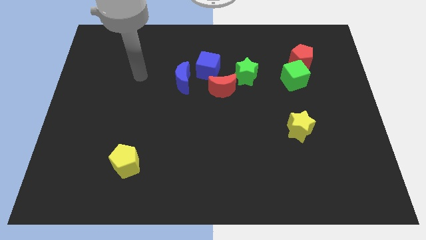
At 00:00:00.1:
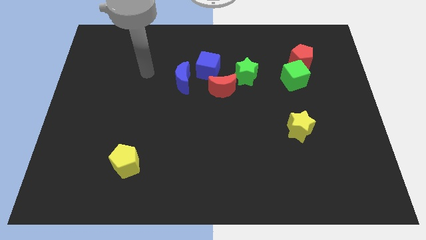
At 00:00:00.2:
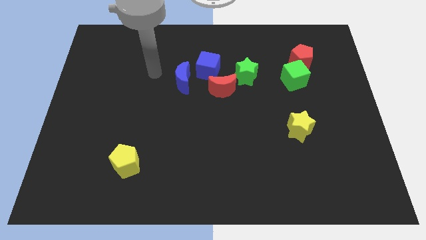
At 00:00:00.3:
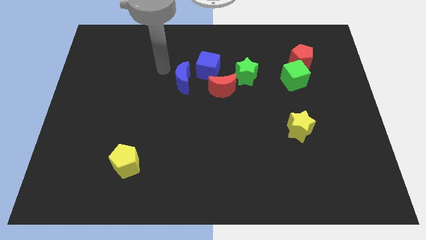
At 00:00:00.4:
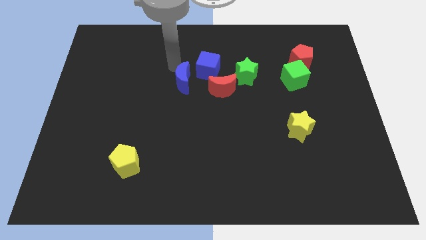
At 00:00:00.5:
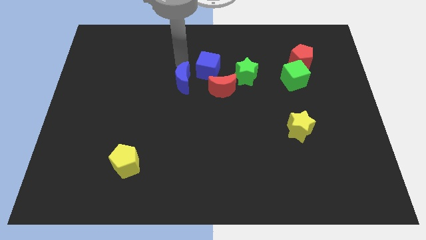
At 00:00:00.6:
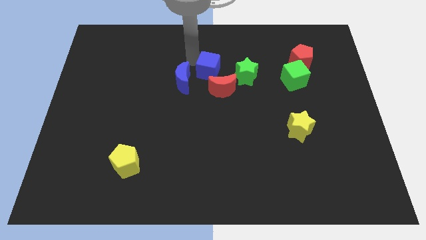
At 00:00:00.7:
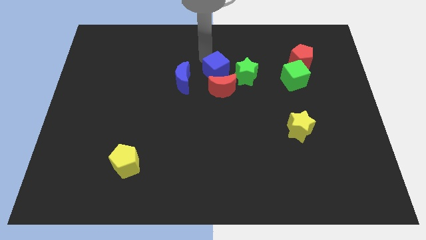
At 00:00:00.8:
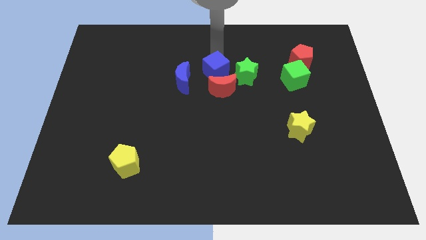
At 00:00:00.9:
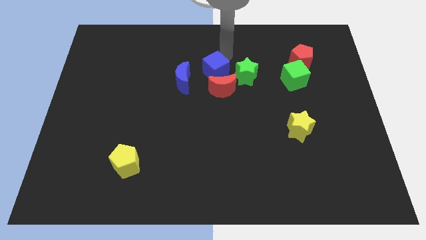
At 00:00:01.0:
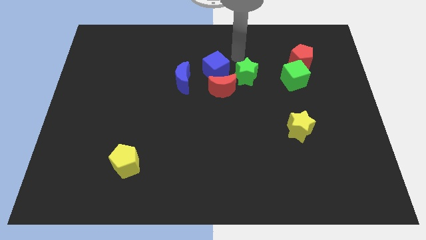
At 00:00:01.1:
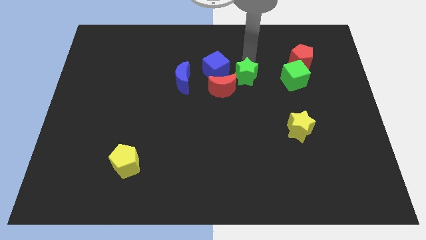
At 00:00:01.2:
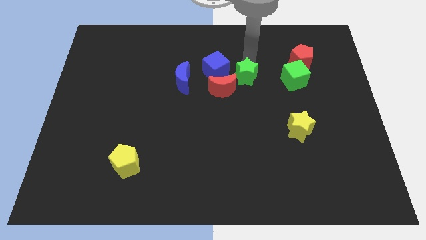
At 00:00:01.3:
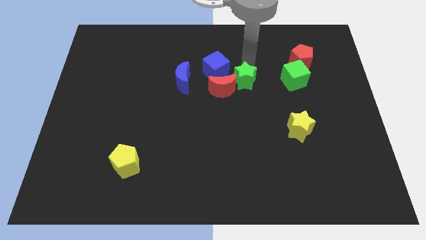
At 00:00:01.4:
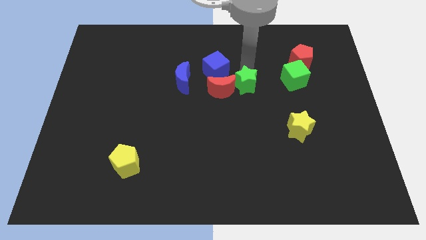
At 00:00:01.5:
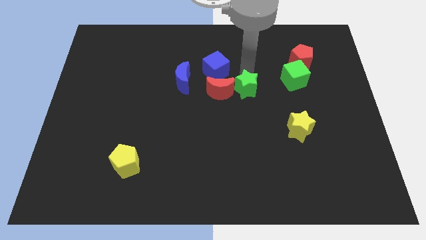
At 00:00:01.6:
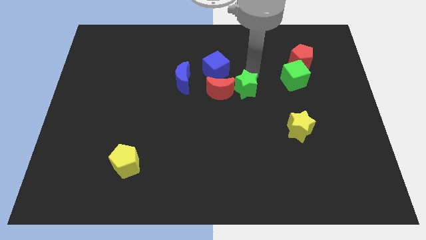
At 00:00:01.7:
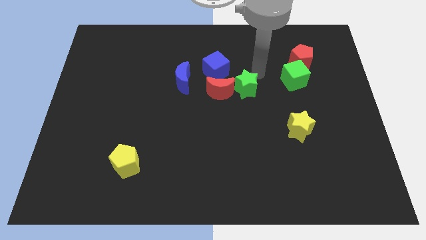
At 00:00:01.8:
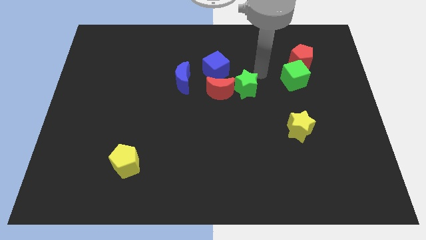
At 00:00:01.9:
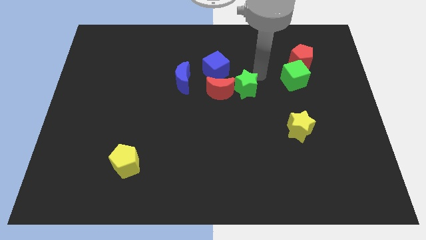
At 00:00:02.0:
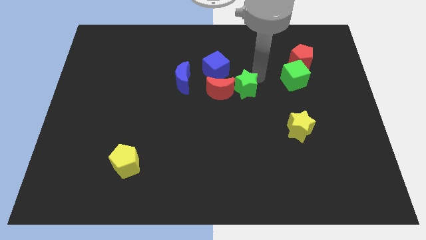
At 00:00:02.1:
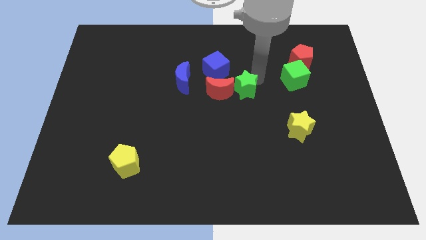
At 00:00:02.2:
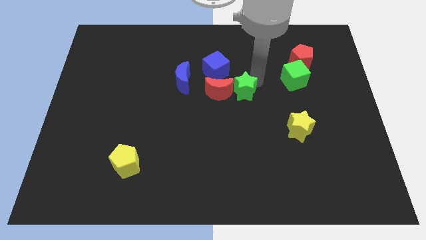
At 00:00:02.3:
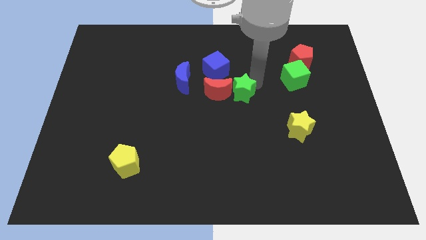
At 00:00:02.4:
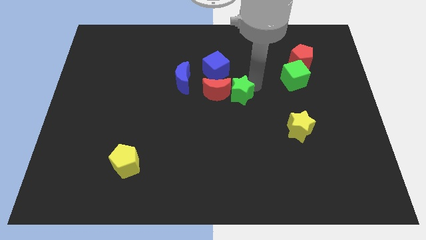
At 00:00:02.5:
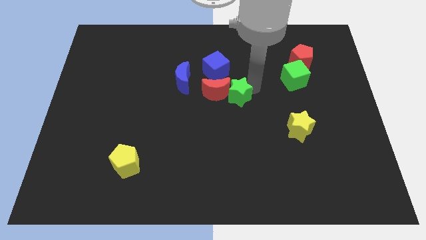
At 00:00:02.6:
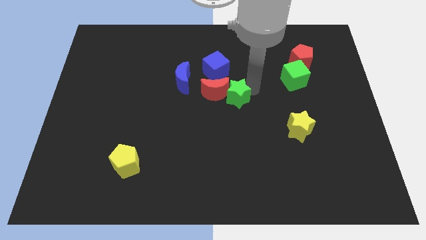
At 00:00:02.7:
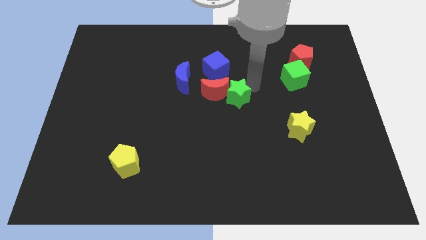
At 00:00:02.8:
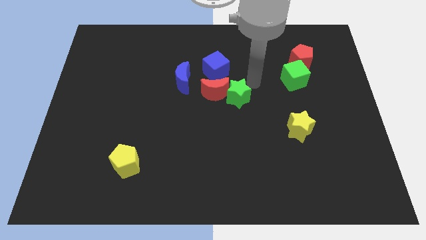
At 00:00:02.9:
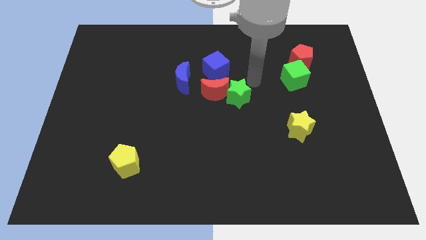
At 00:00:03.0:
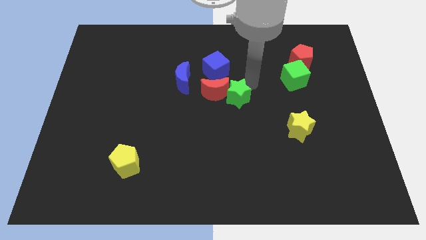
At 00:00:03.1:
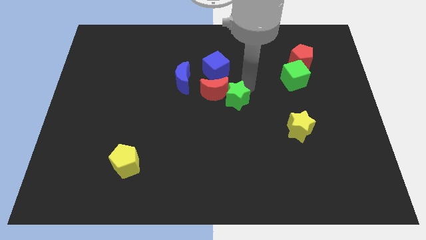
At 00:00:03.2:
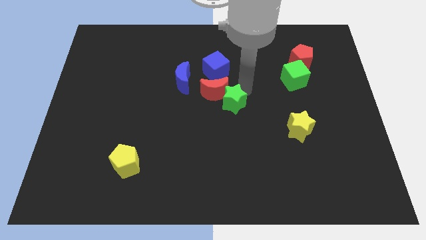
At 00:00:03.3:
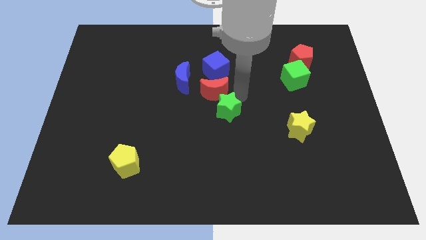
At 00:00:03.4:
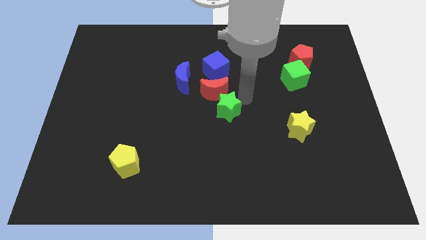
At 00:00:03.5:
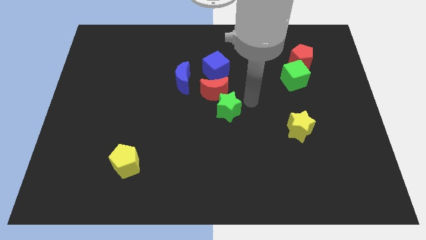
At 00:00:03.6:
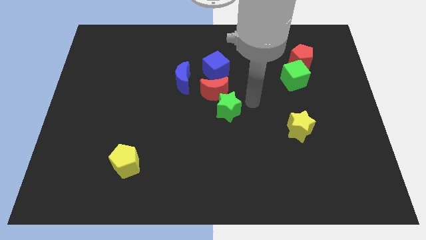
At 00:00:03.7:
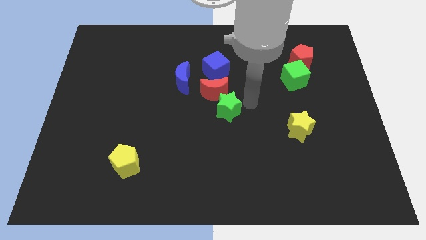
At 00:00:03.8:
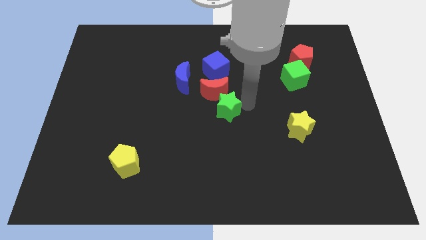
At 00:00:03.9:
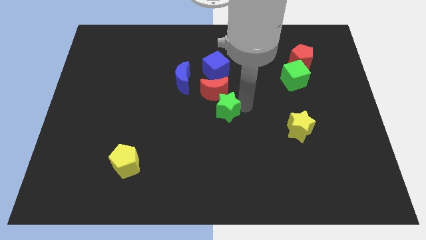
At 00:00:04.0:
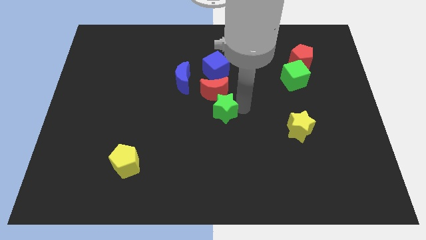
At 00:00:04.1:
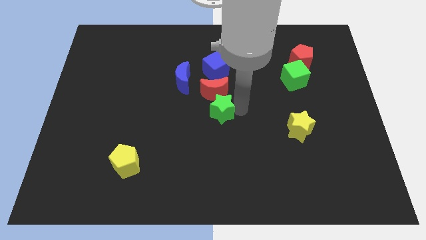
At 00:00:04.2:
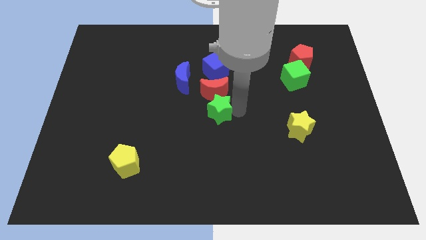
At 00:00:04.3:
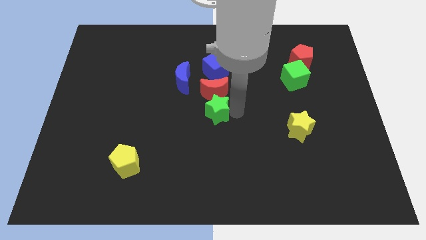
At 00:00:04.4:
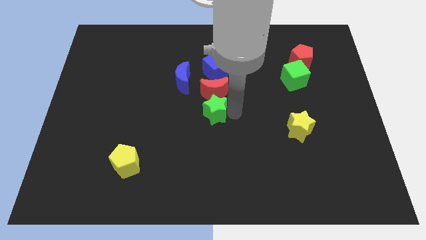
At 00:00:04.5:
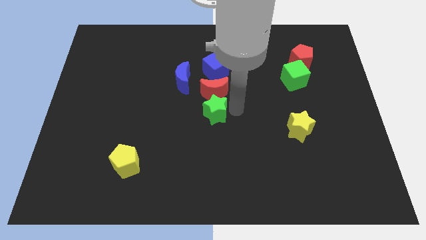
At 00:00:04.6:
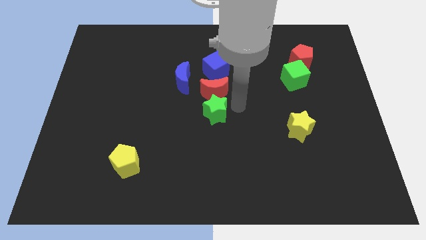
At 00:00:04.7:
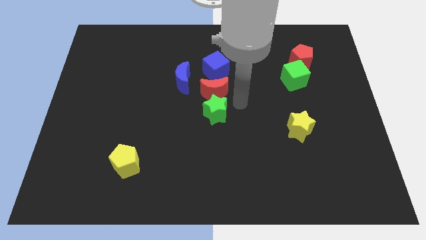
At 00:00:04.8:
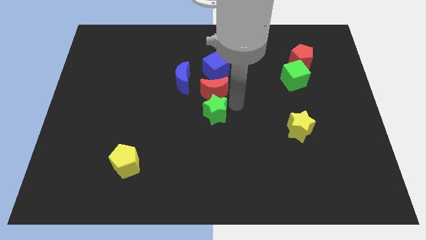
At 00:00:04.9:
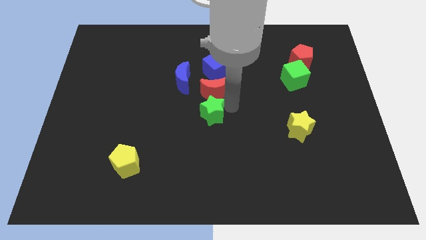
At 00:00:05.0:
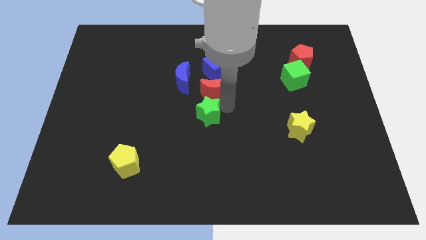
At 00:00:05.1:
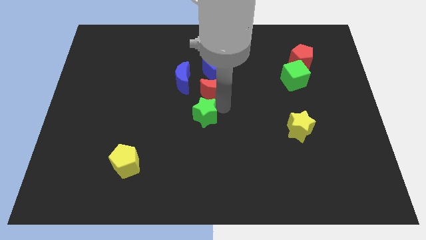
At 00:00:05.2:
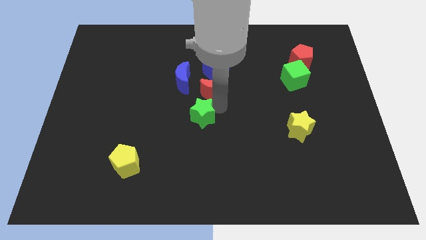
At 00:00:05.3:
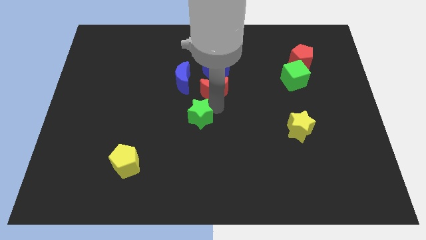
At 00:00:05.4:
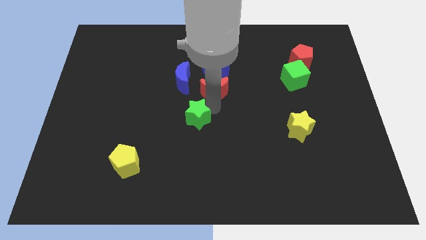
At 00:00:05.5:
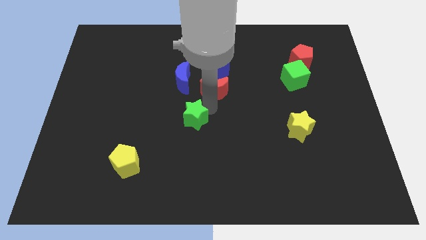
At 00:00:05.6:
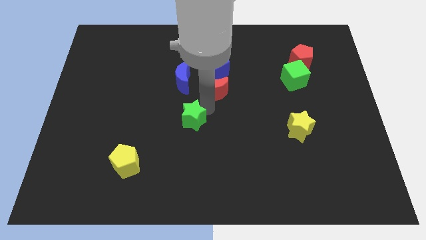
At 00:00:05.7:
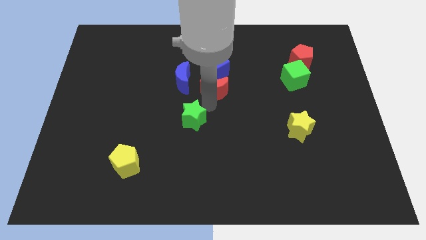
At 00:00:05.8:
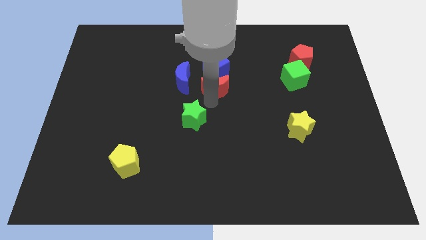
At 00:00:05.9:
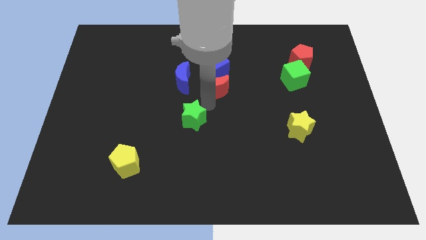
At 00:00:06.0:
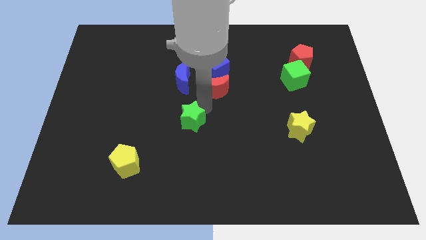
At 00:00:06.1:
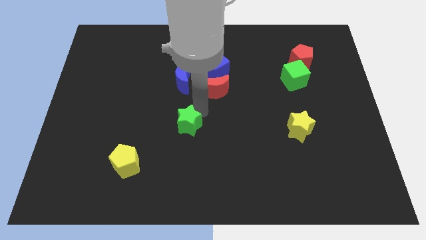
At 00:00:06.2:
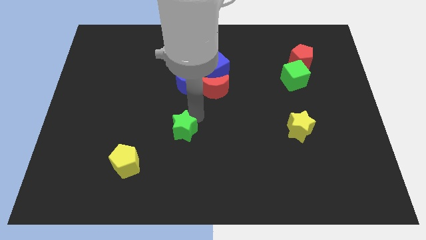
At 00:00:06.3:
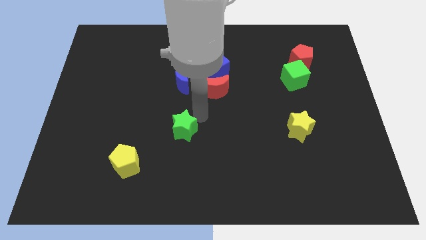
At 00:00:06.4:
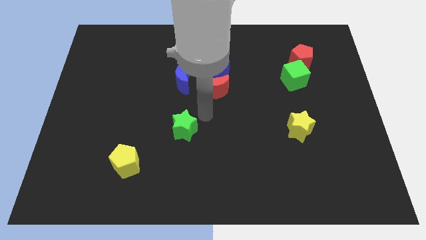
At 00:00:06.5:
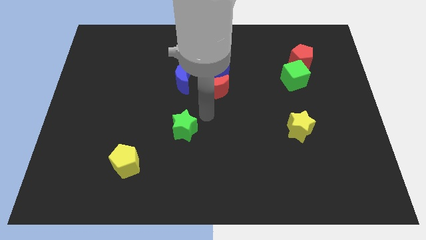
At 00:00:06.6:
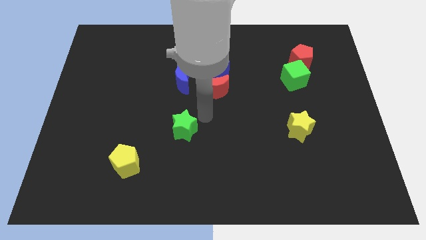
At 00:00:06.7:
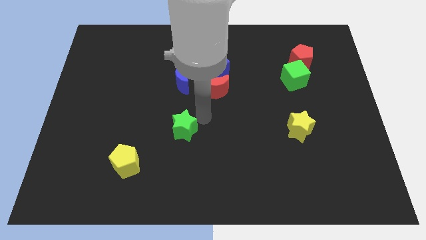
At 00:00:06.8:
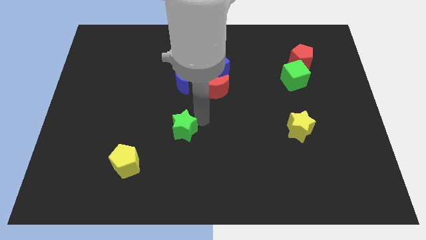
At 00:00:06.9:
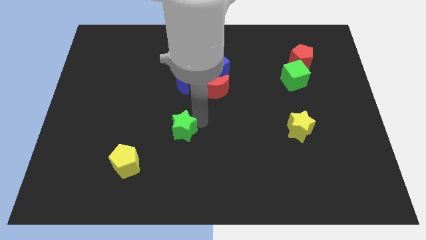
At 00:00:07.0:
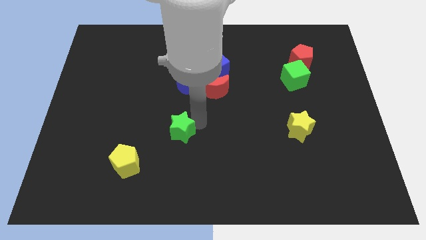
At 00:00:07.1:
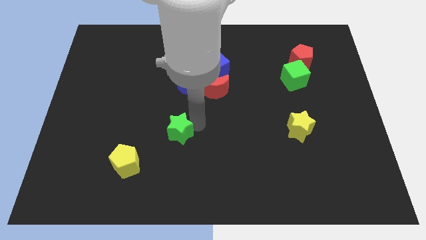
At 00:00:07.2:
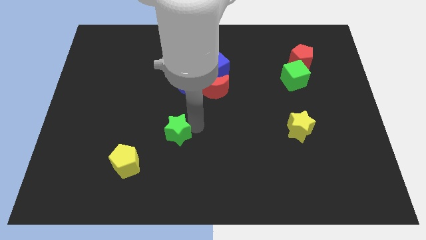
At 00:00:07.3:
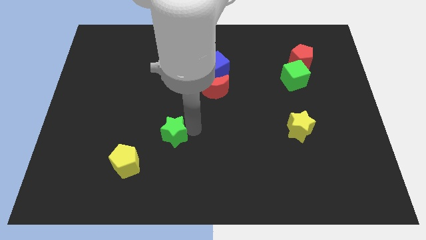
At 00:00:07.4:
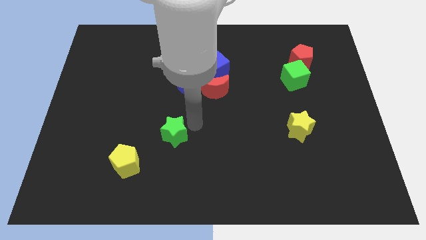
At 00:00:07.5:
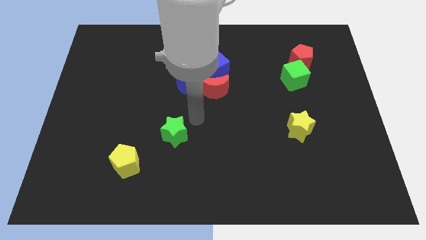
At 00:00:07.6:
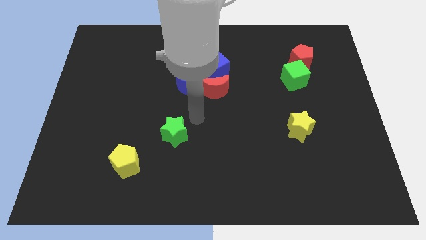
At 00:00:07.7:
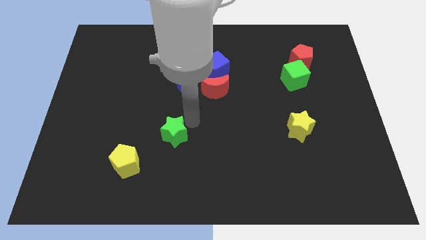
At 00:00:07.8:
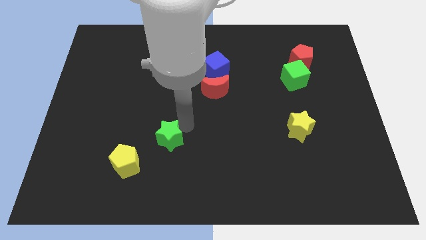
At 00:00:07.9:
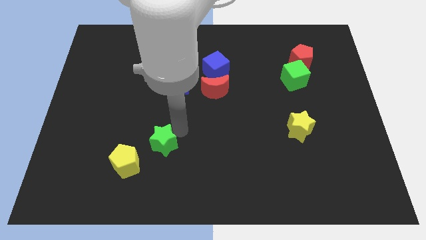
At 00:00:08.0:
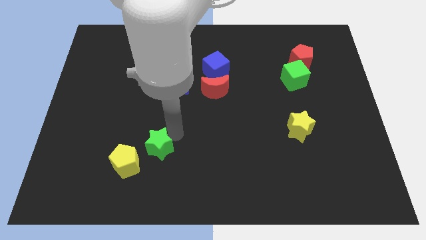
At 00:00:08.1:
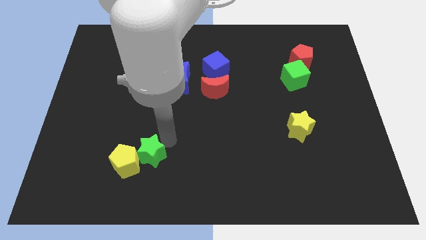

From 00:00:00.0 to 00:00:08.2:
slide the green star towards the yellow pentagon
